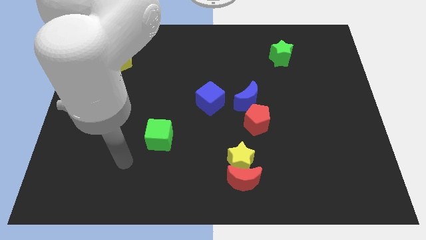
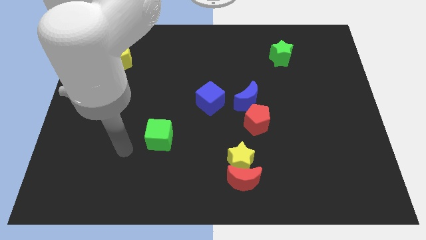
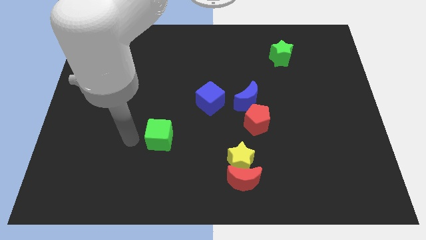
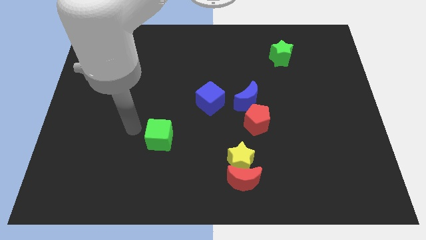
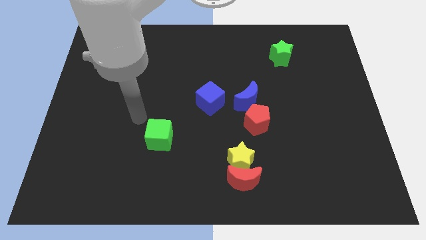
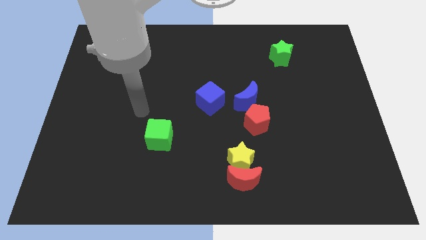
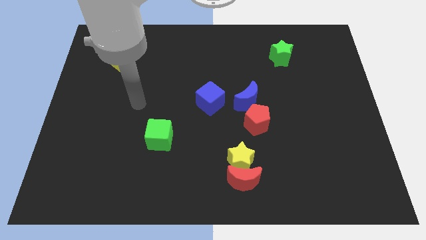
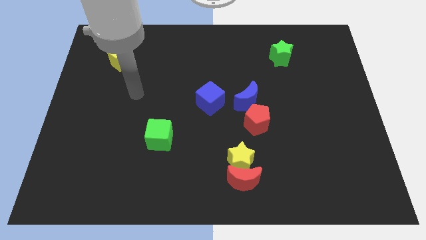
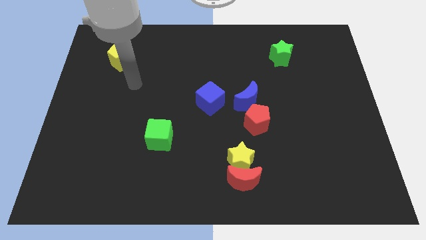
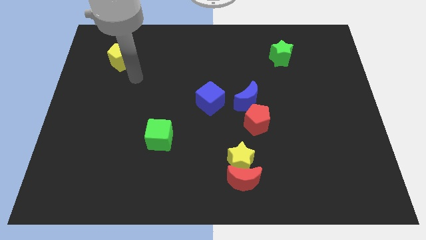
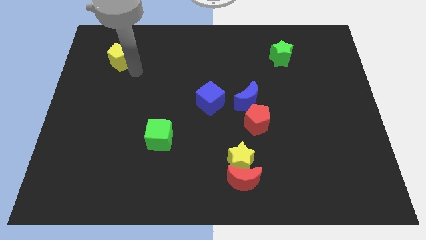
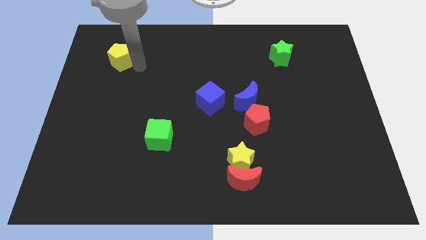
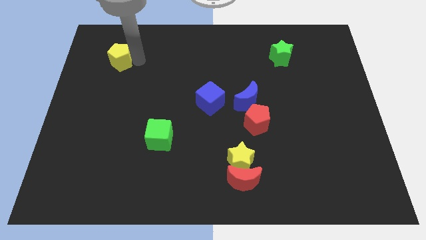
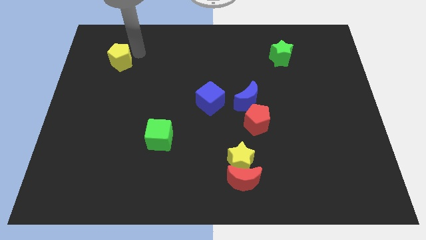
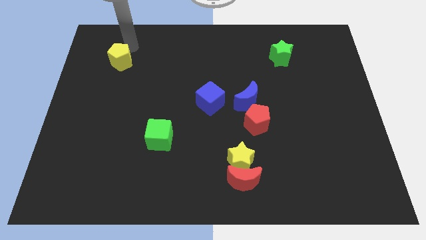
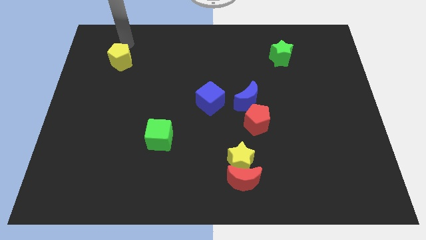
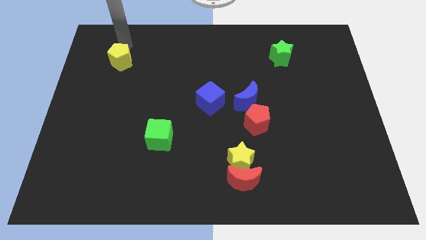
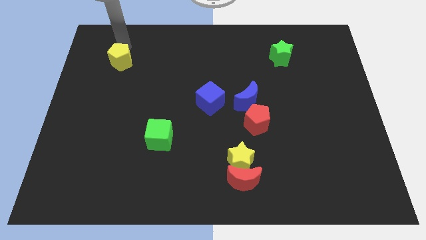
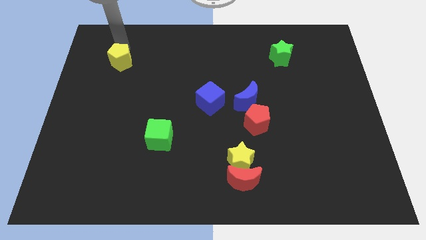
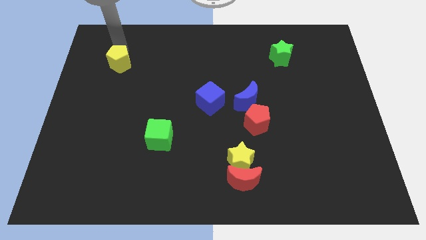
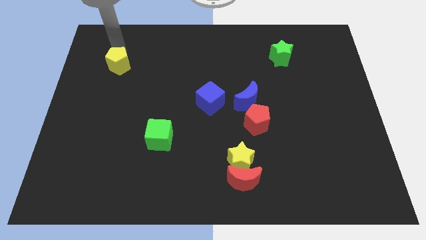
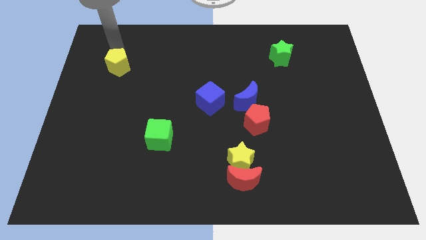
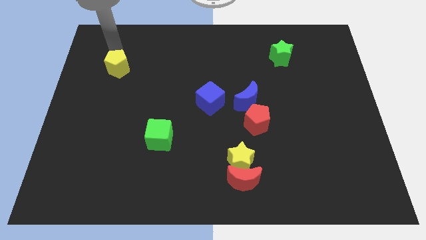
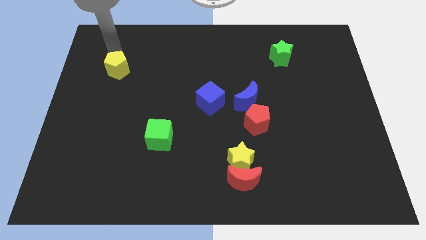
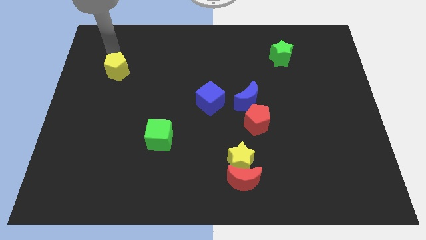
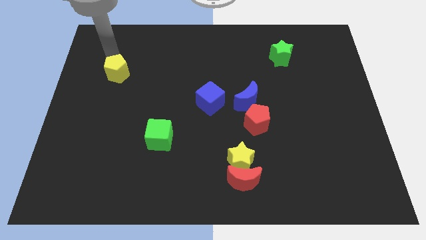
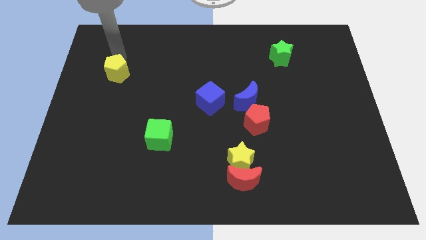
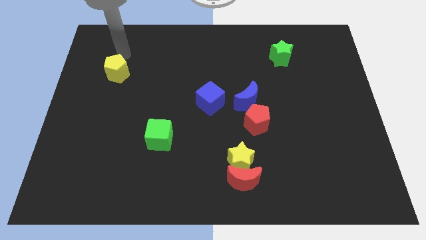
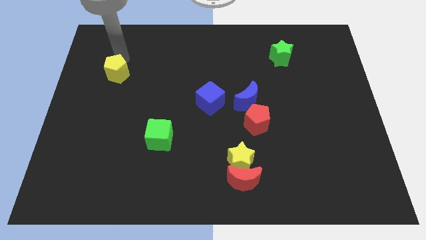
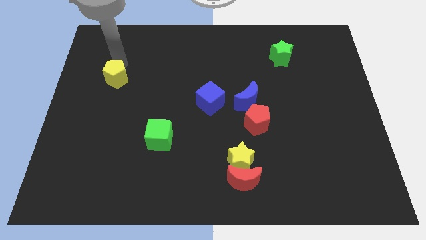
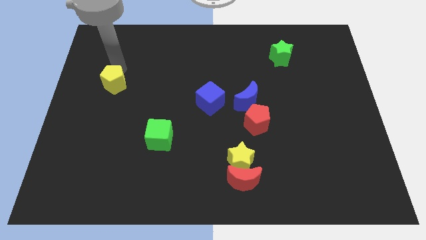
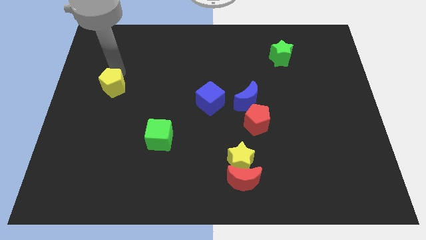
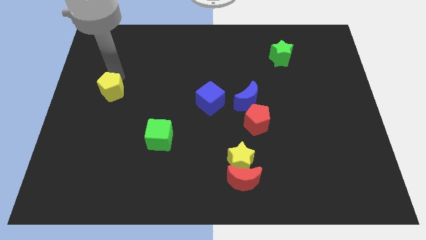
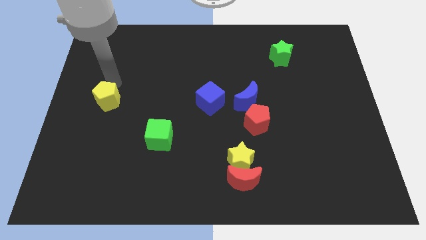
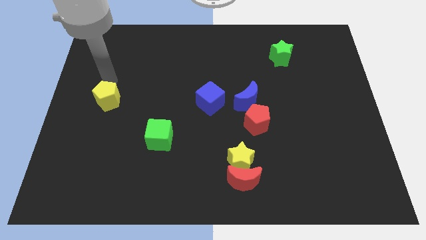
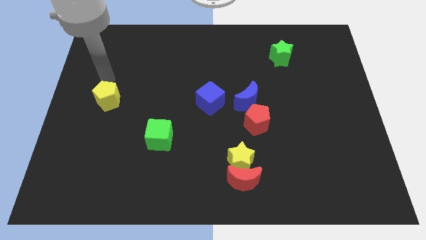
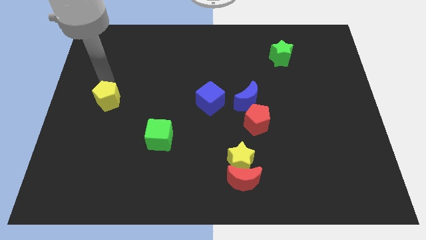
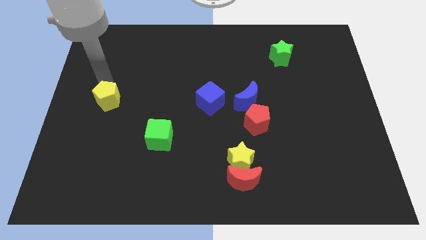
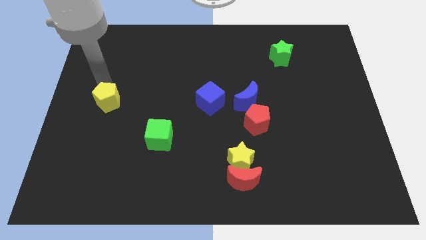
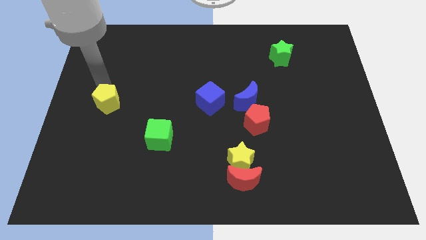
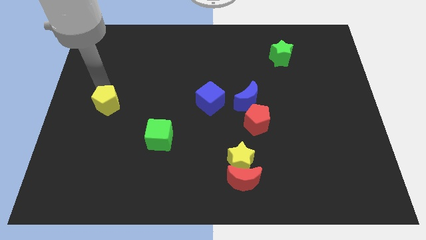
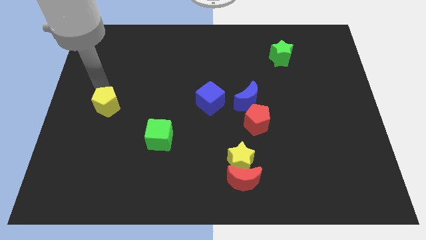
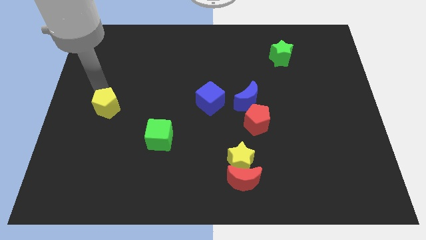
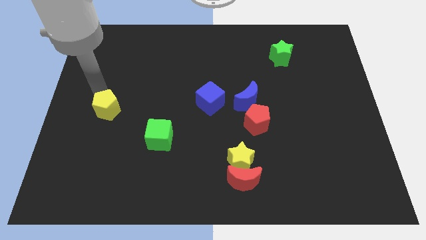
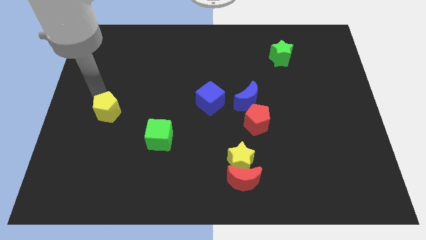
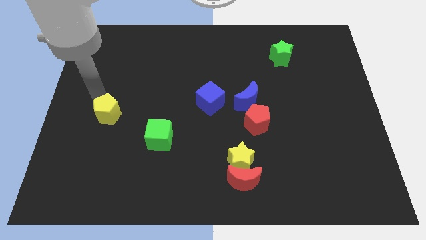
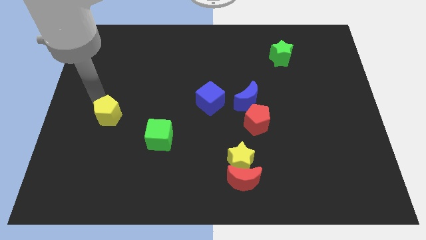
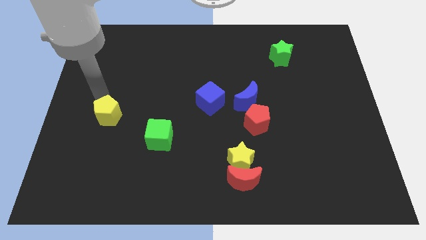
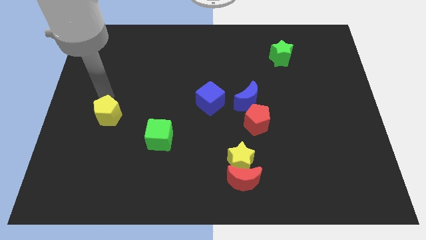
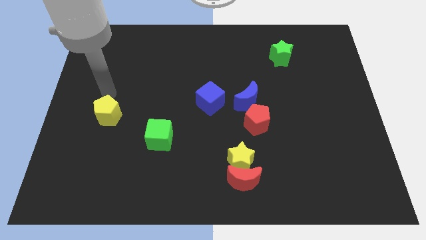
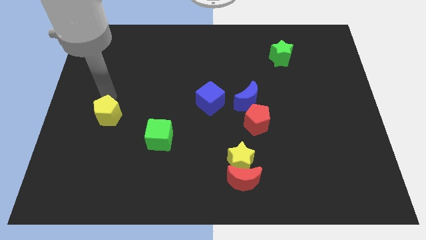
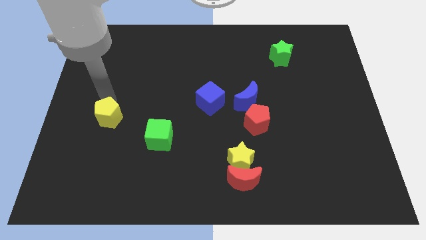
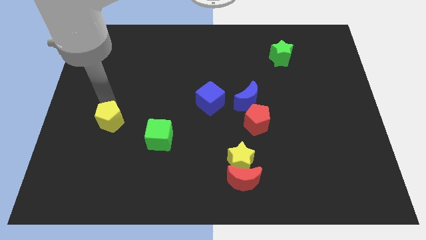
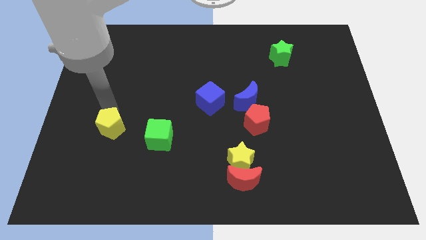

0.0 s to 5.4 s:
move the yellow pentagon downwards

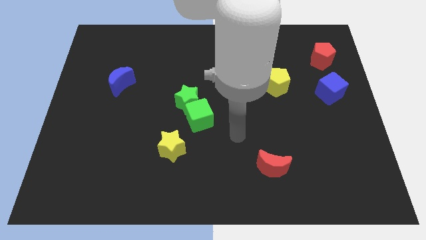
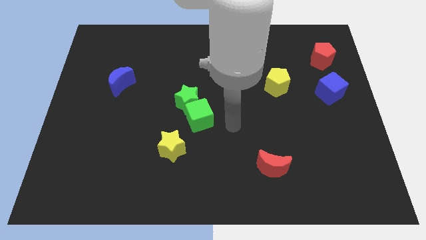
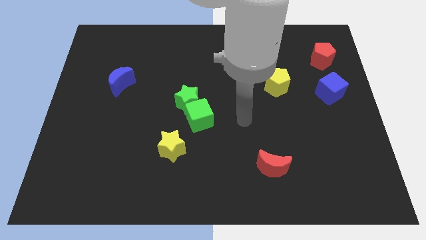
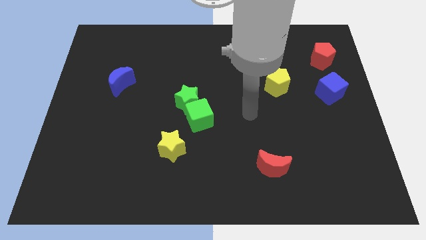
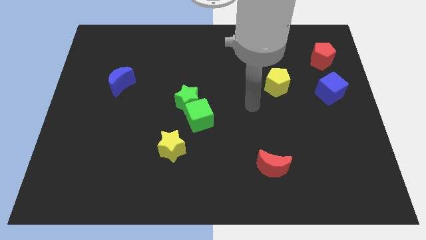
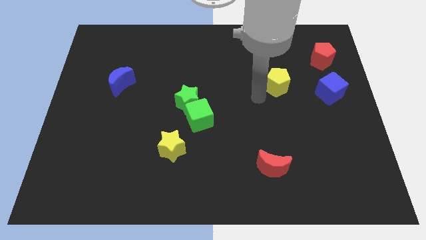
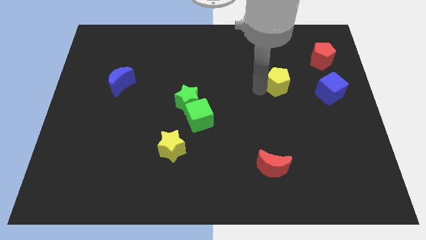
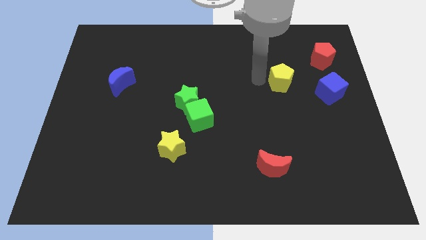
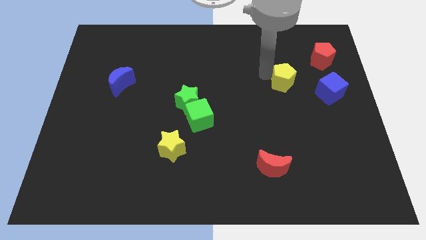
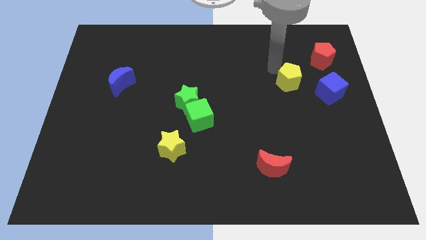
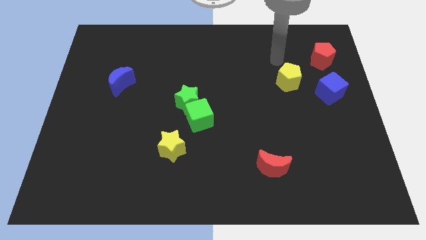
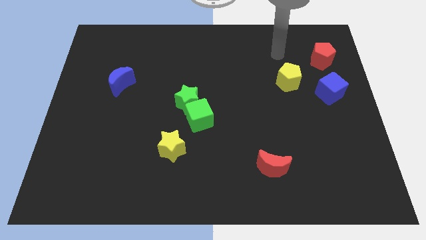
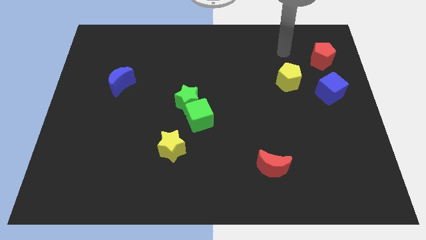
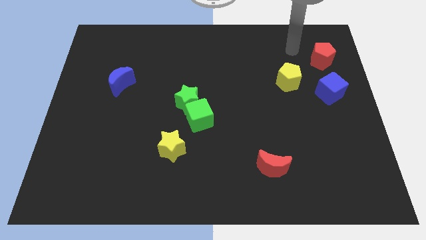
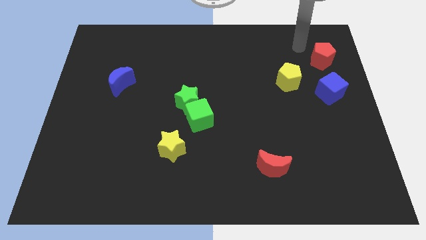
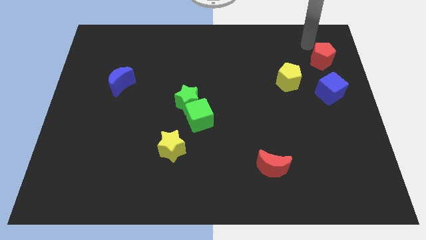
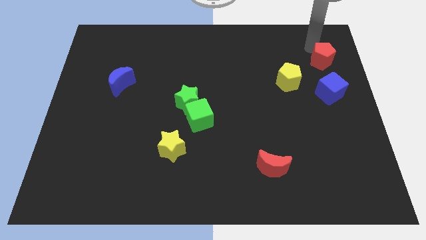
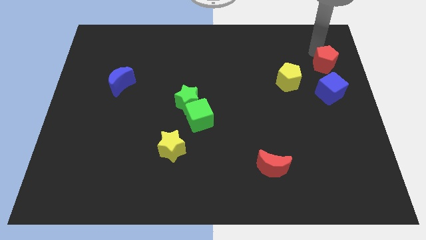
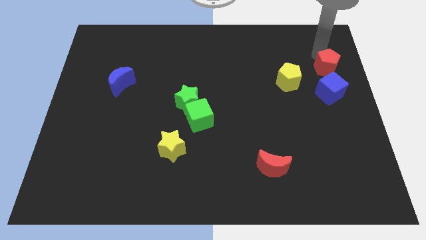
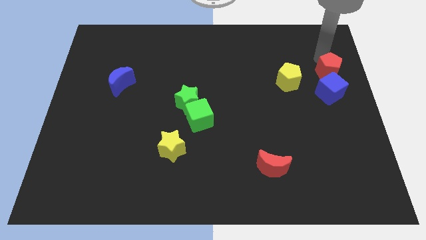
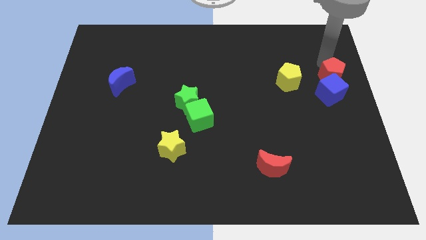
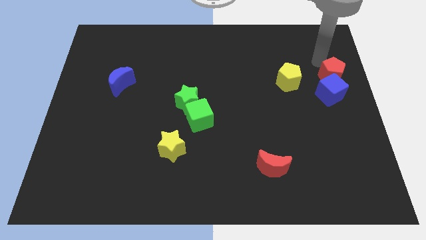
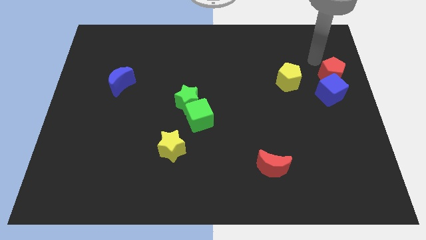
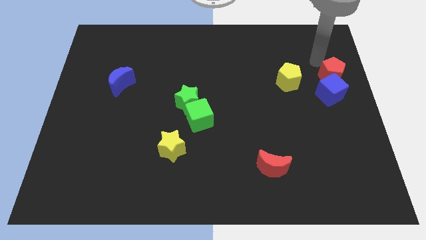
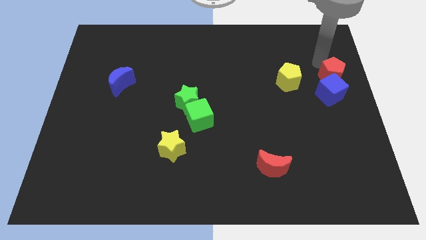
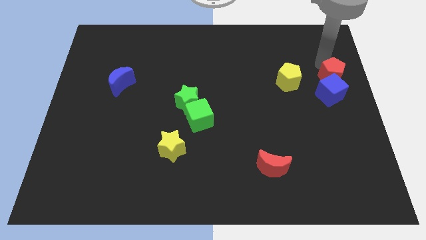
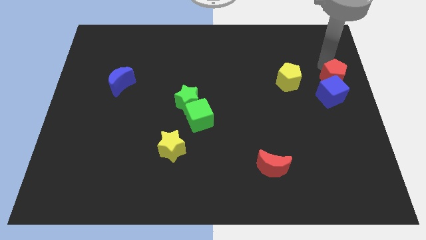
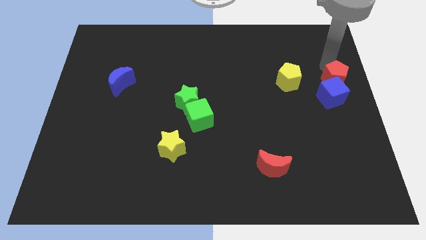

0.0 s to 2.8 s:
move the red pentagon a bit down
